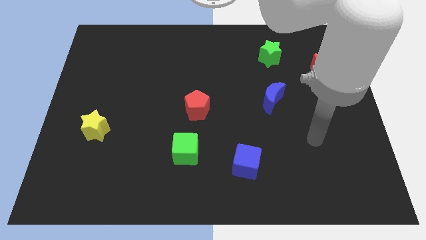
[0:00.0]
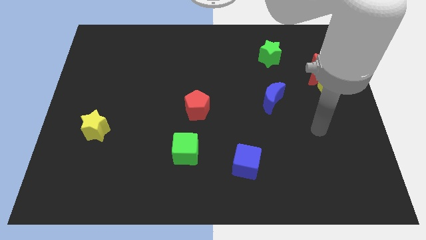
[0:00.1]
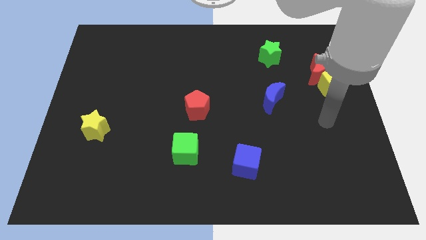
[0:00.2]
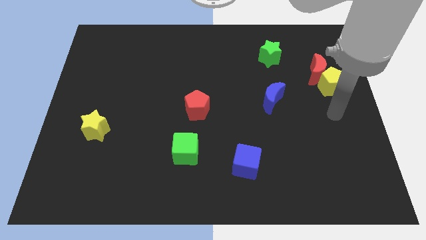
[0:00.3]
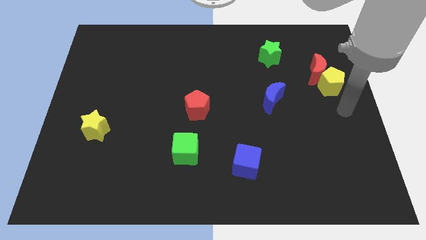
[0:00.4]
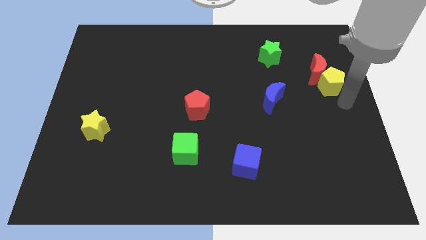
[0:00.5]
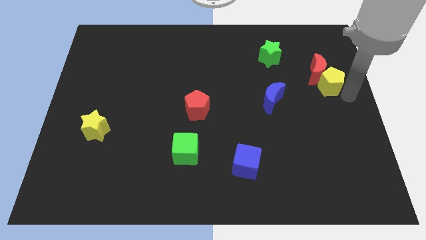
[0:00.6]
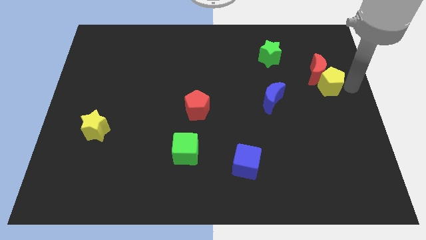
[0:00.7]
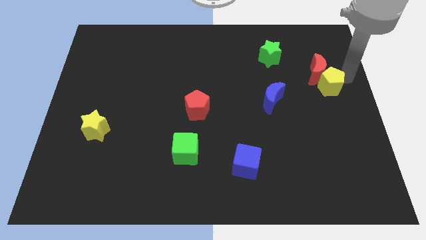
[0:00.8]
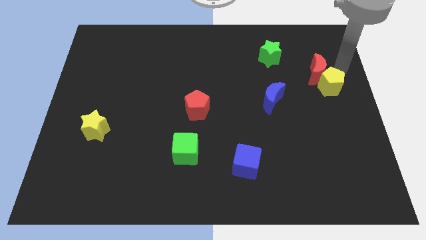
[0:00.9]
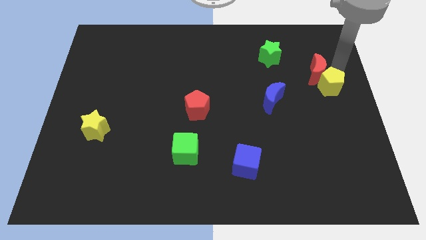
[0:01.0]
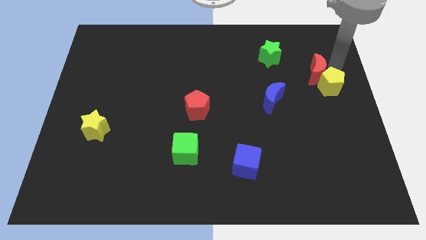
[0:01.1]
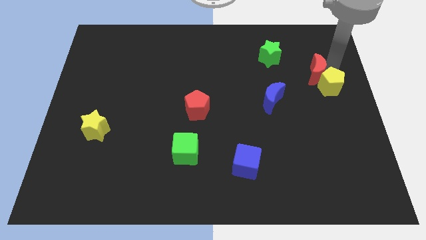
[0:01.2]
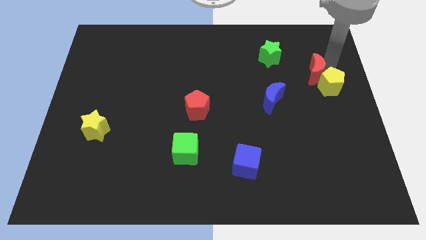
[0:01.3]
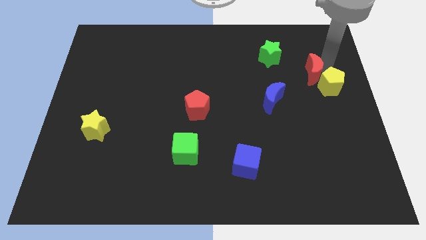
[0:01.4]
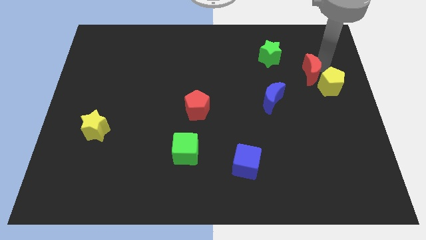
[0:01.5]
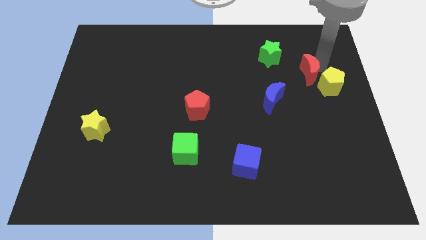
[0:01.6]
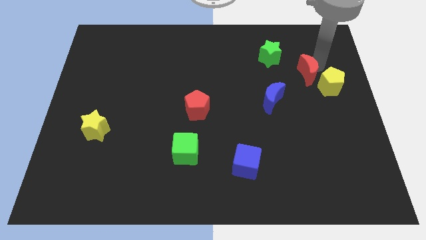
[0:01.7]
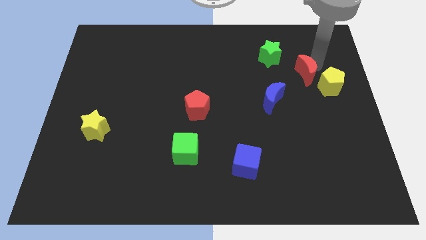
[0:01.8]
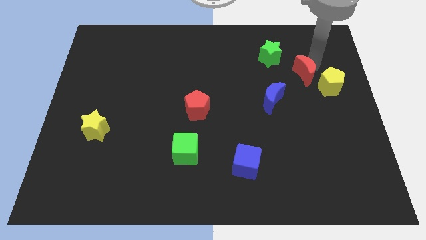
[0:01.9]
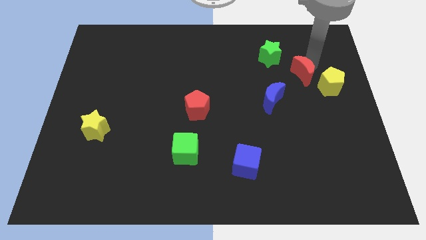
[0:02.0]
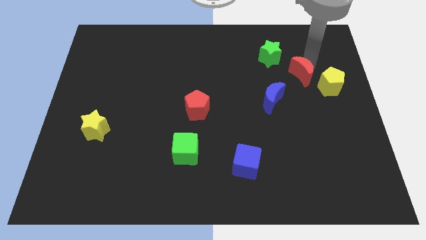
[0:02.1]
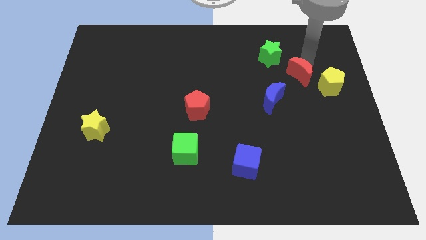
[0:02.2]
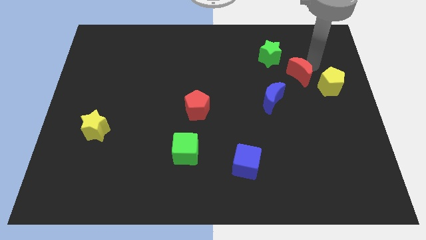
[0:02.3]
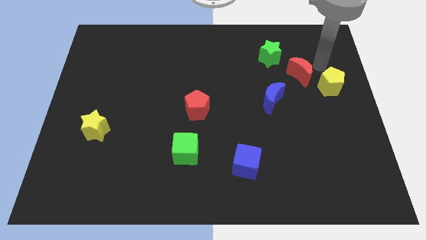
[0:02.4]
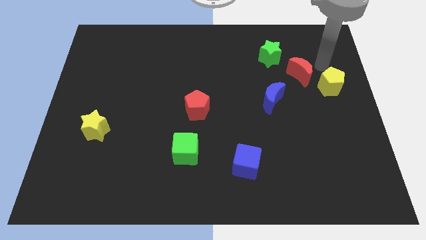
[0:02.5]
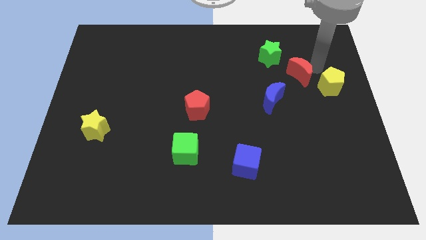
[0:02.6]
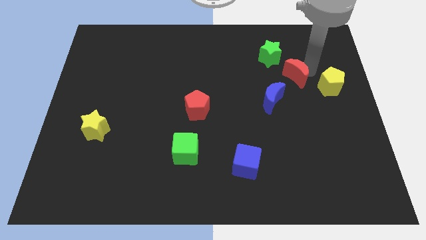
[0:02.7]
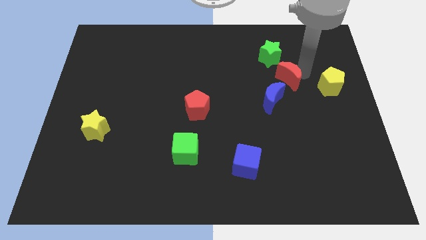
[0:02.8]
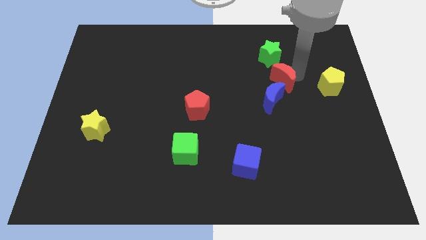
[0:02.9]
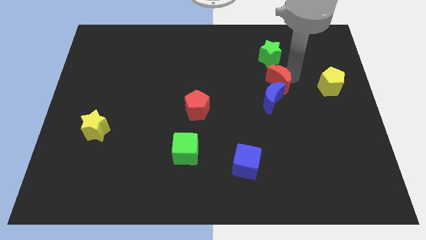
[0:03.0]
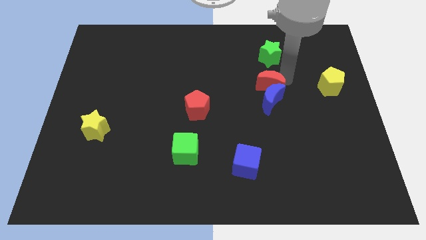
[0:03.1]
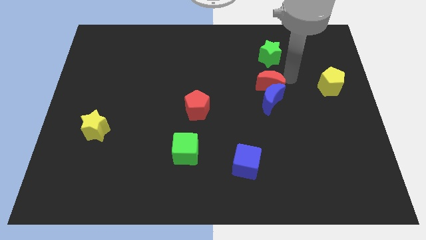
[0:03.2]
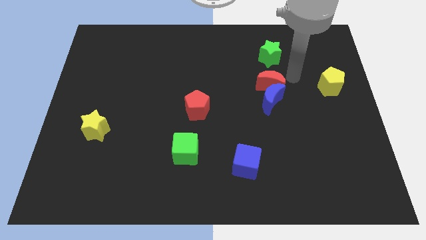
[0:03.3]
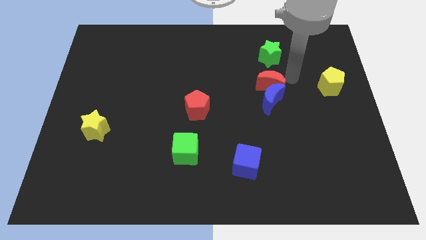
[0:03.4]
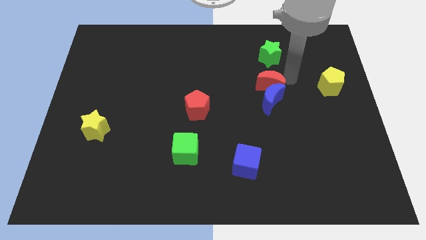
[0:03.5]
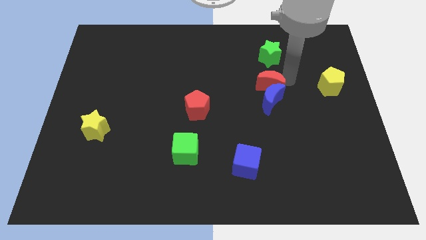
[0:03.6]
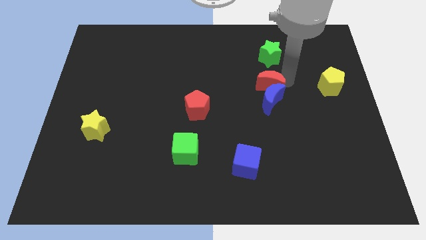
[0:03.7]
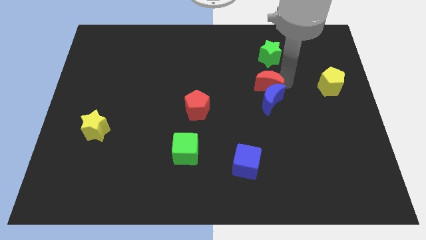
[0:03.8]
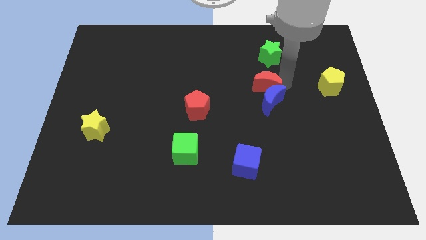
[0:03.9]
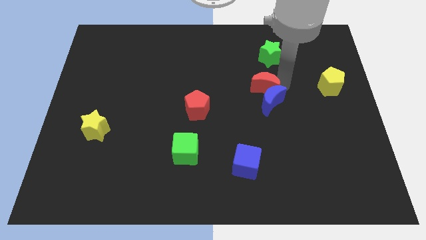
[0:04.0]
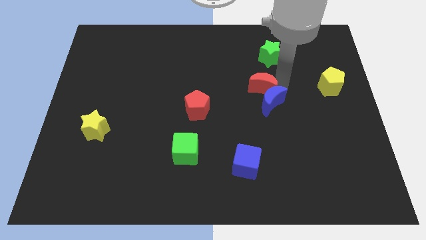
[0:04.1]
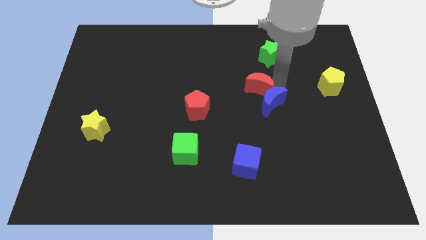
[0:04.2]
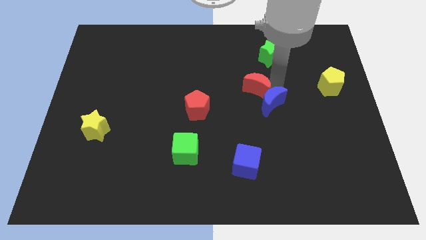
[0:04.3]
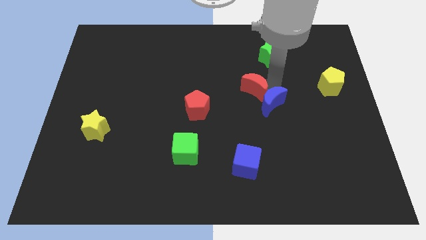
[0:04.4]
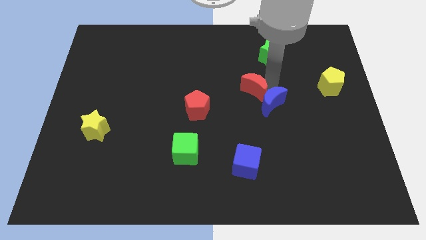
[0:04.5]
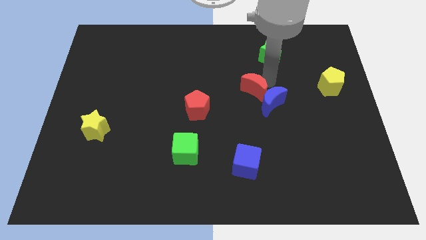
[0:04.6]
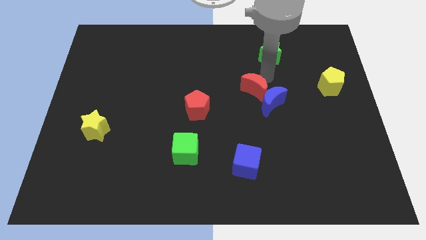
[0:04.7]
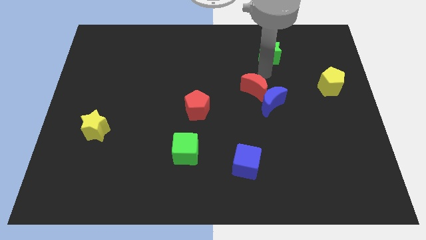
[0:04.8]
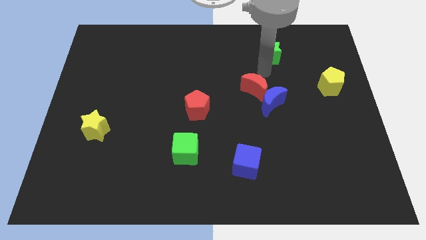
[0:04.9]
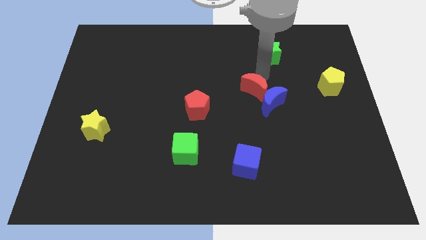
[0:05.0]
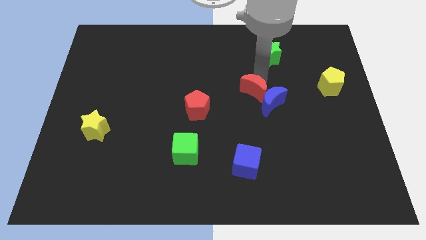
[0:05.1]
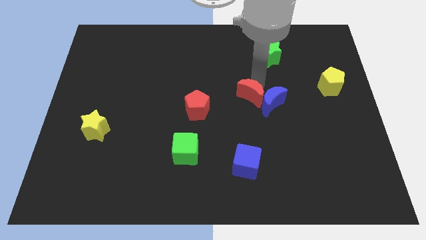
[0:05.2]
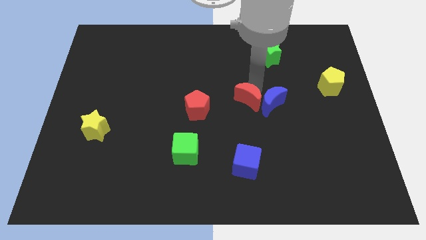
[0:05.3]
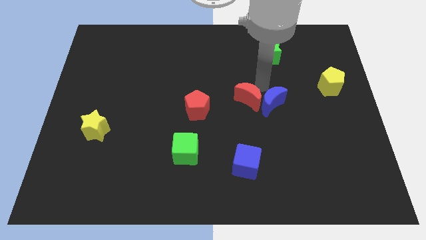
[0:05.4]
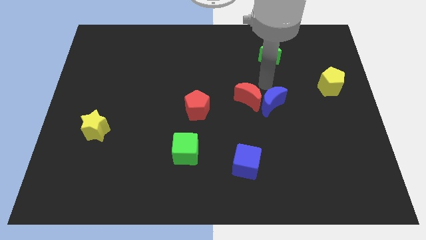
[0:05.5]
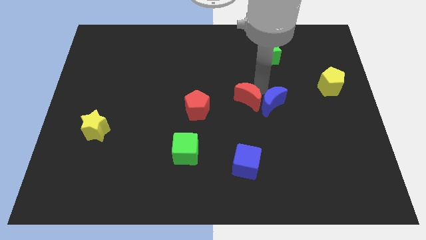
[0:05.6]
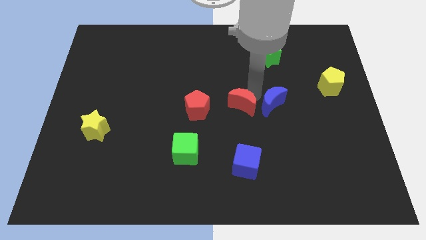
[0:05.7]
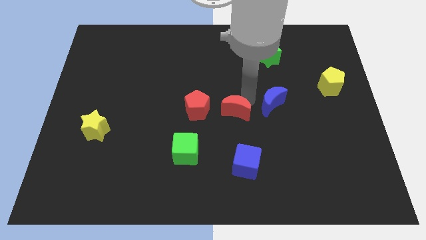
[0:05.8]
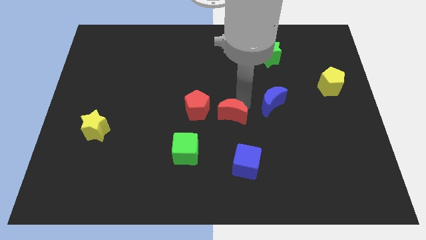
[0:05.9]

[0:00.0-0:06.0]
move the red moon to the bottom right of the red pentagon

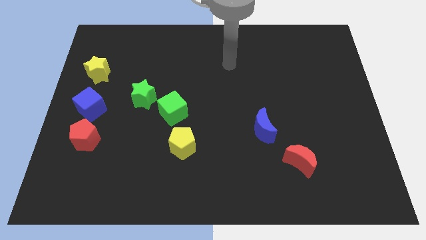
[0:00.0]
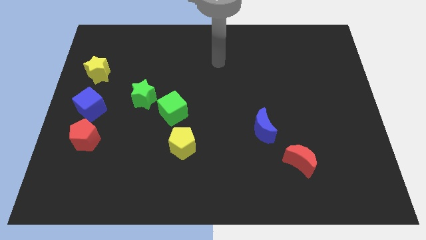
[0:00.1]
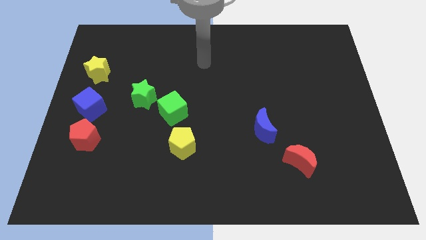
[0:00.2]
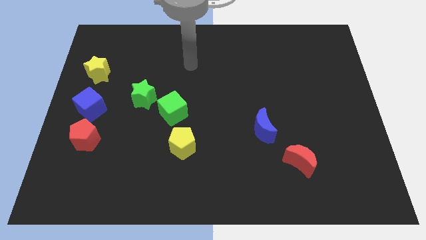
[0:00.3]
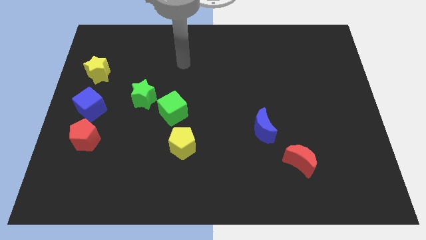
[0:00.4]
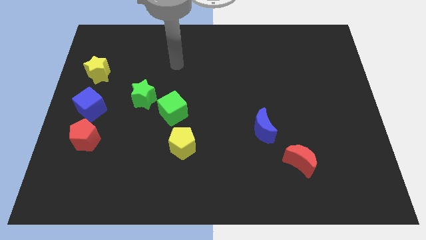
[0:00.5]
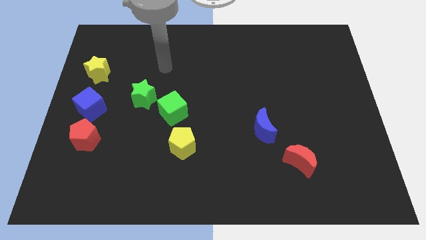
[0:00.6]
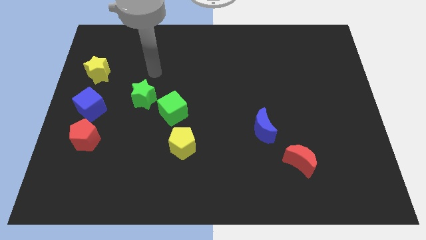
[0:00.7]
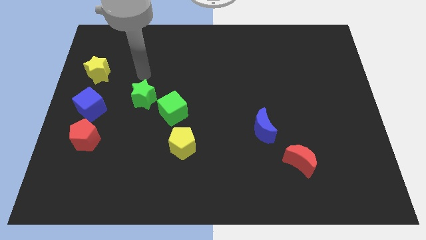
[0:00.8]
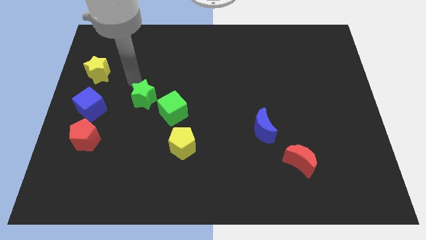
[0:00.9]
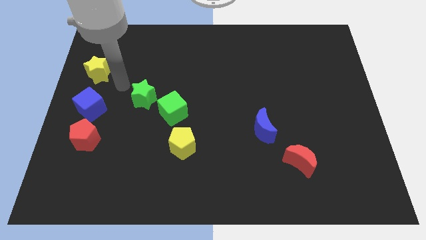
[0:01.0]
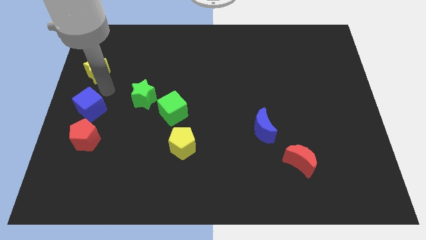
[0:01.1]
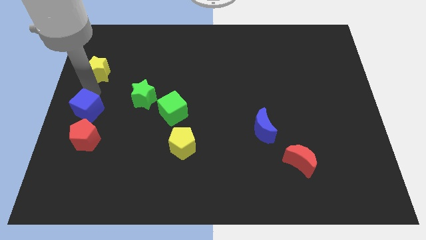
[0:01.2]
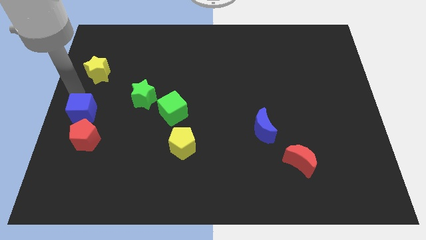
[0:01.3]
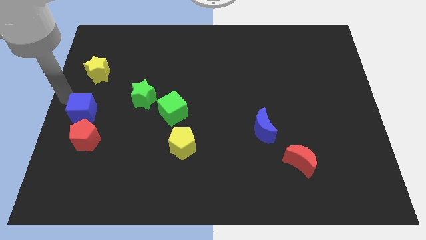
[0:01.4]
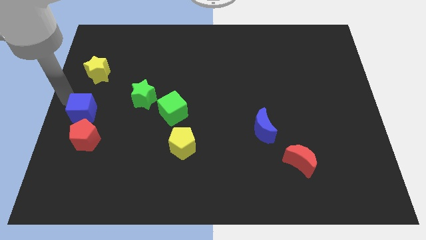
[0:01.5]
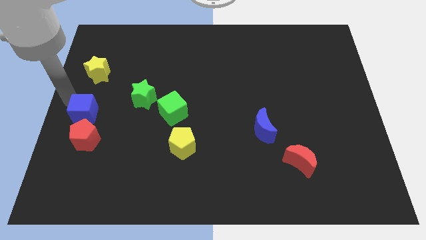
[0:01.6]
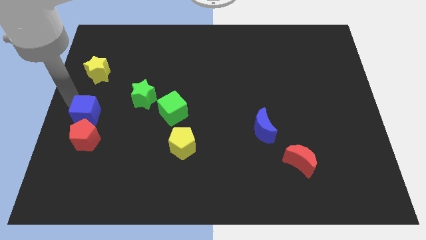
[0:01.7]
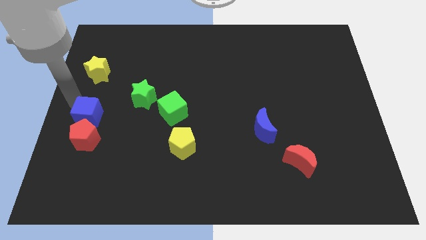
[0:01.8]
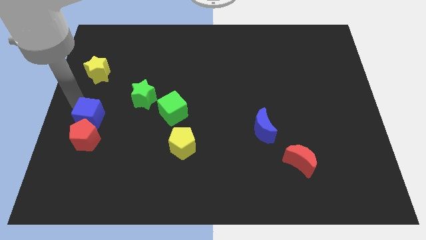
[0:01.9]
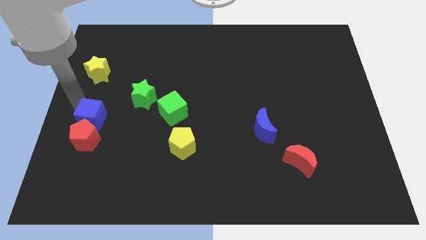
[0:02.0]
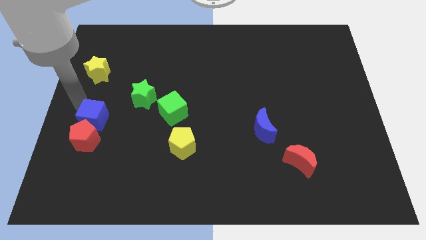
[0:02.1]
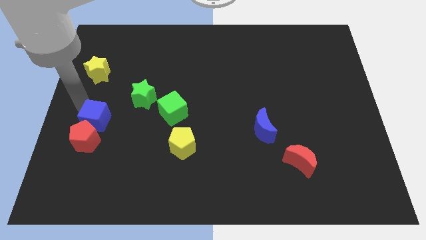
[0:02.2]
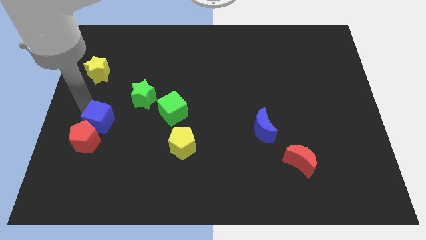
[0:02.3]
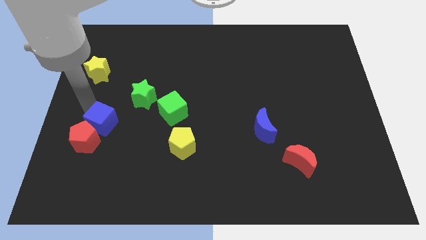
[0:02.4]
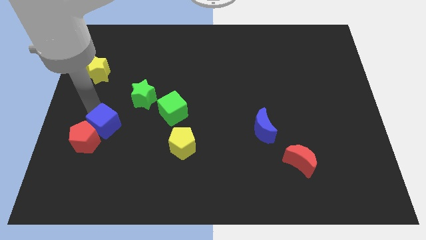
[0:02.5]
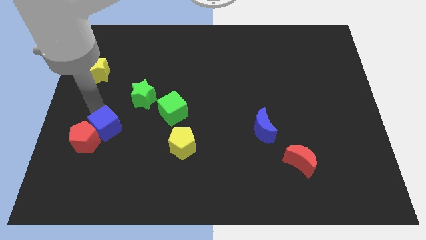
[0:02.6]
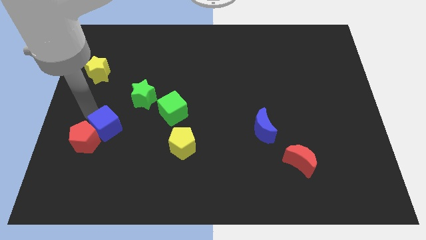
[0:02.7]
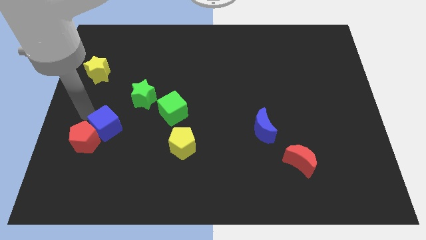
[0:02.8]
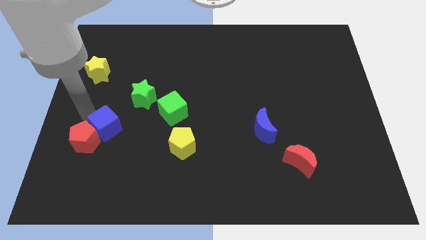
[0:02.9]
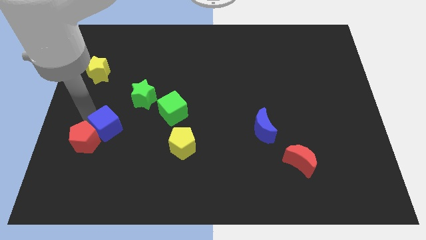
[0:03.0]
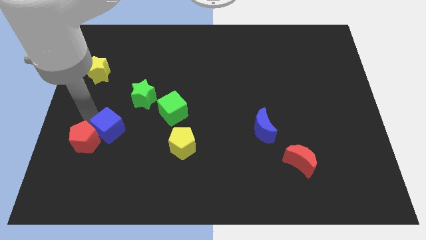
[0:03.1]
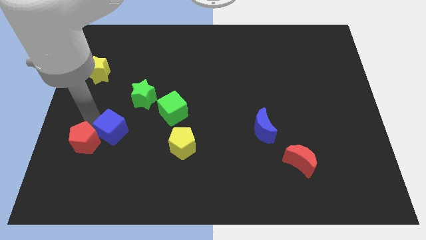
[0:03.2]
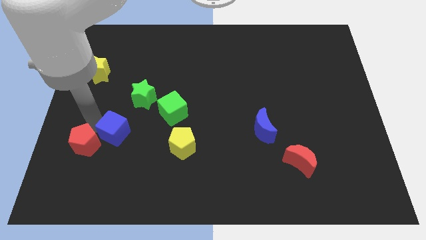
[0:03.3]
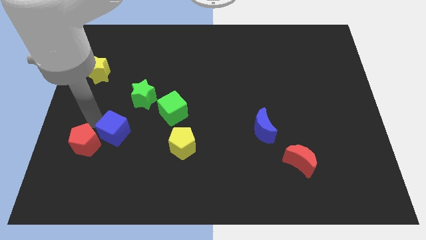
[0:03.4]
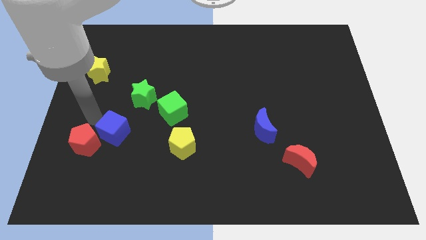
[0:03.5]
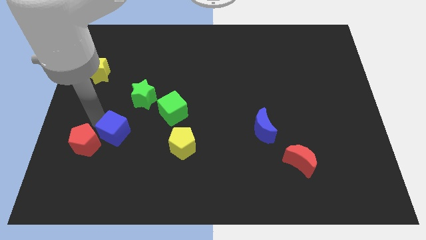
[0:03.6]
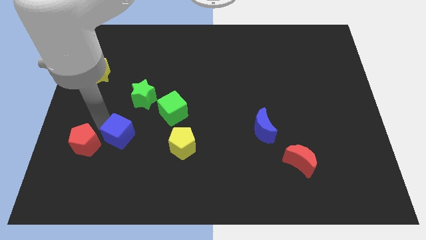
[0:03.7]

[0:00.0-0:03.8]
slide the blue cube to the left side of the yellow pentagon
